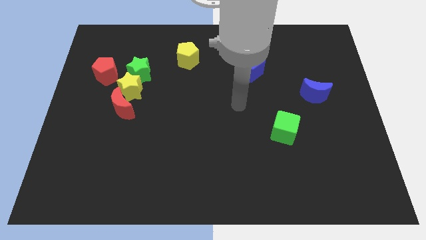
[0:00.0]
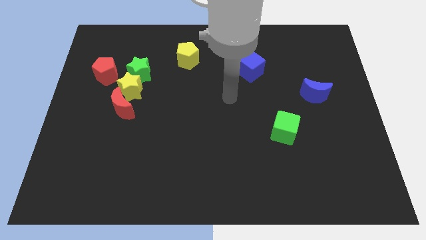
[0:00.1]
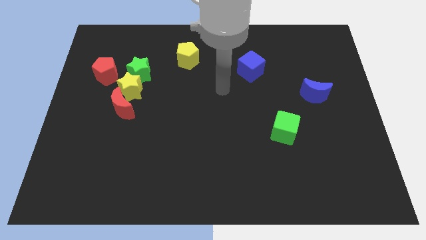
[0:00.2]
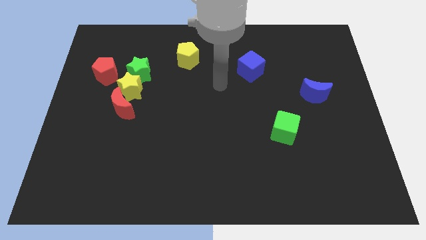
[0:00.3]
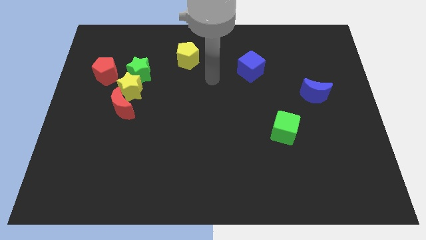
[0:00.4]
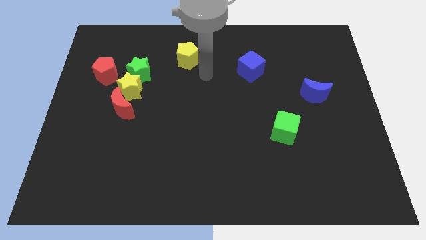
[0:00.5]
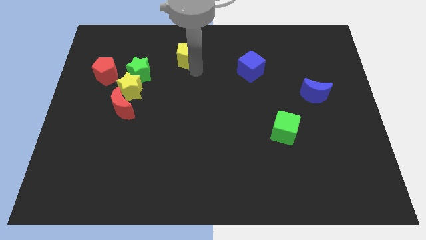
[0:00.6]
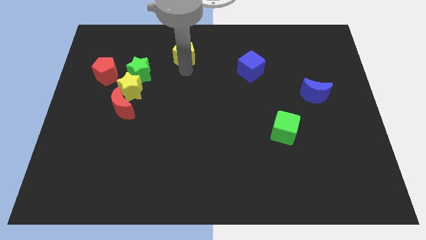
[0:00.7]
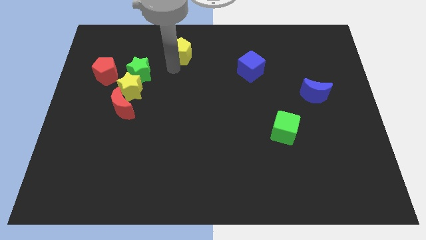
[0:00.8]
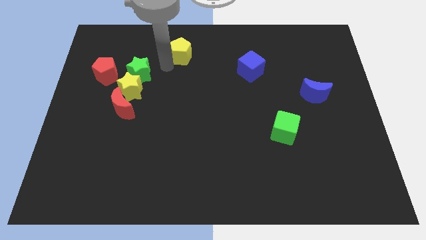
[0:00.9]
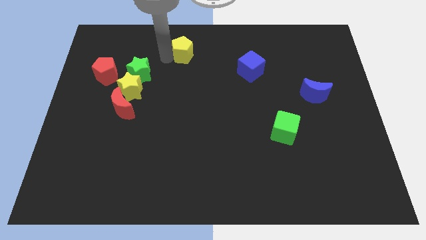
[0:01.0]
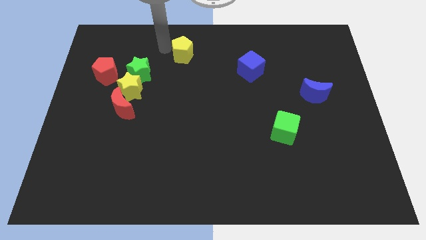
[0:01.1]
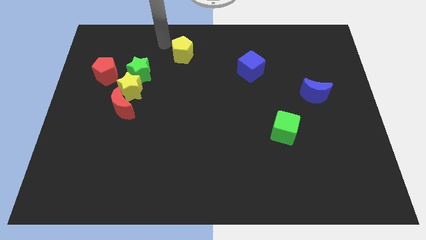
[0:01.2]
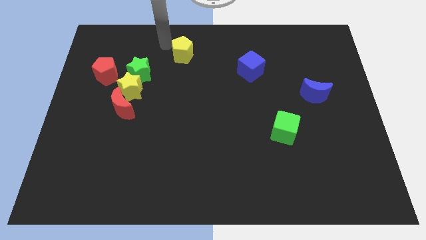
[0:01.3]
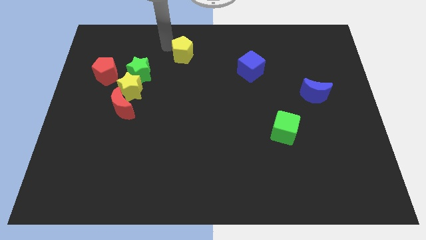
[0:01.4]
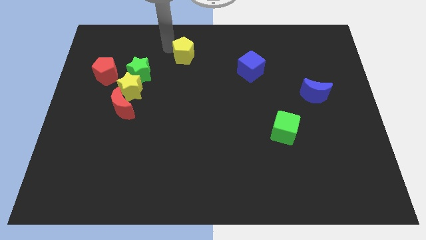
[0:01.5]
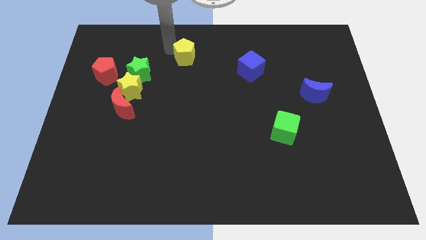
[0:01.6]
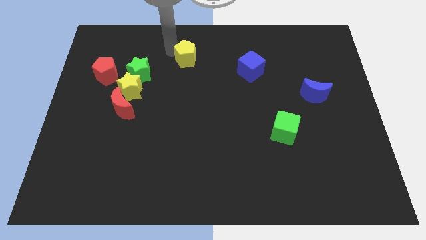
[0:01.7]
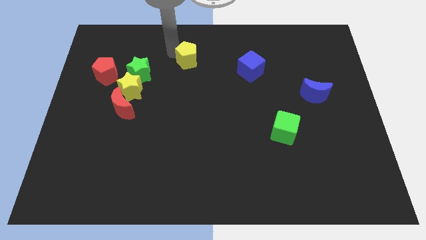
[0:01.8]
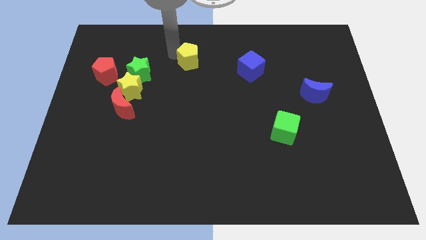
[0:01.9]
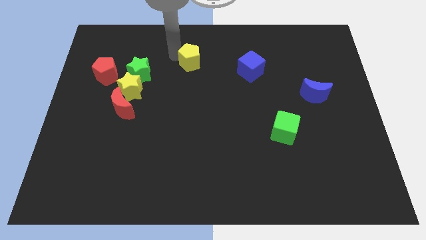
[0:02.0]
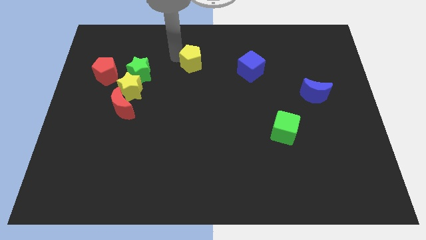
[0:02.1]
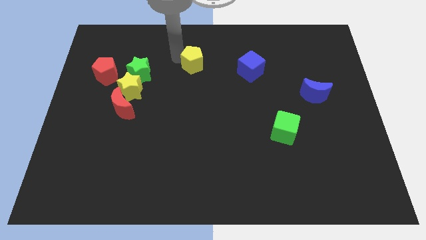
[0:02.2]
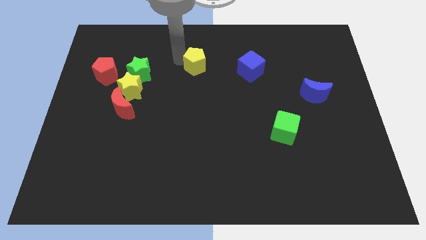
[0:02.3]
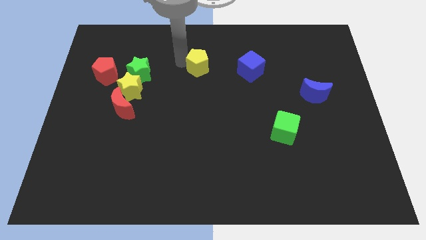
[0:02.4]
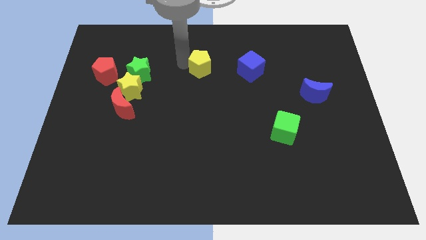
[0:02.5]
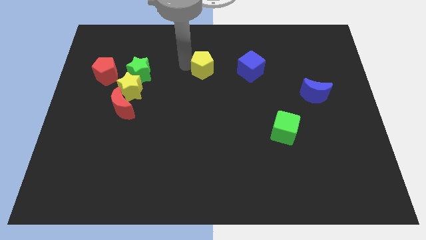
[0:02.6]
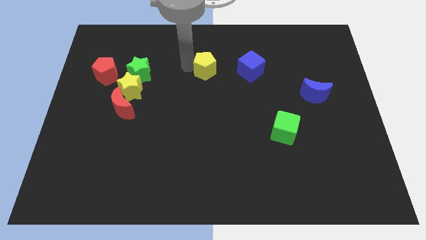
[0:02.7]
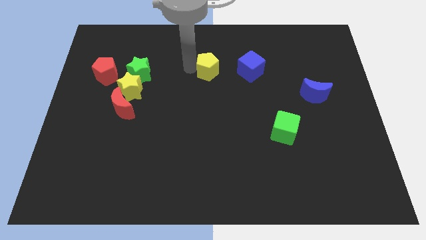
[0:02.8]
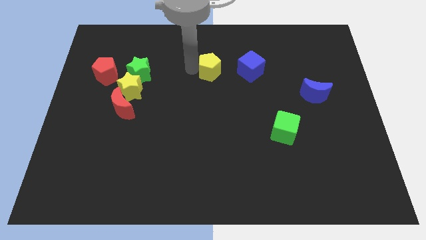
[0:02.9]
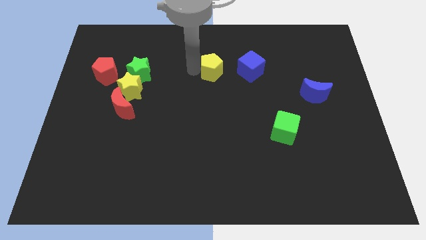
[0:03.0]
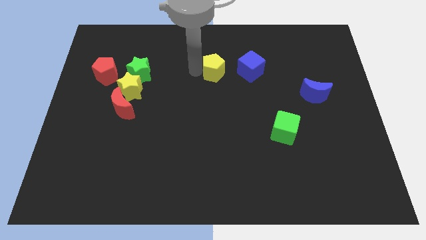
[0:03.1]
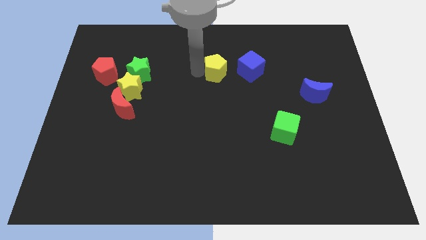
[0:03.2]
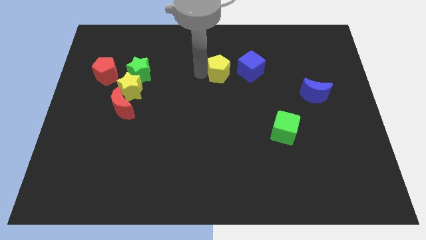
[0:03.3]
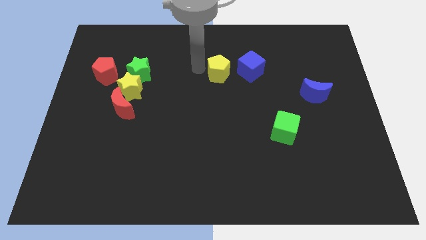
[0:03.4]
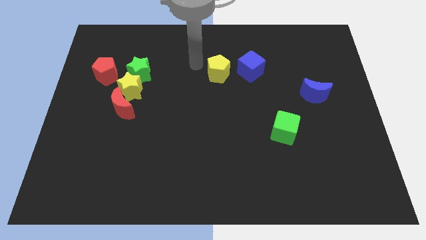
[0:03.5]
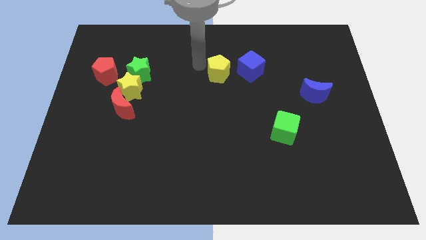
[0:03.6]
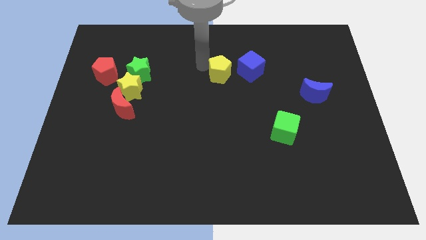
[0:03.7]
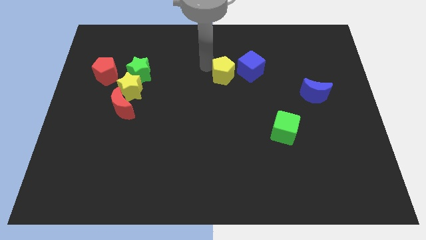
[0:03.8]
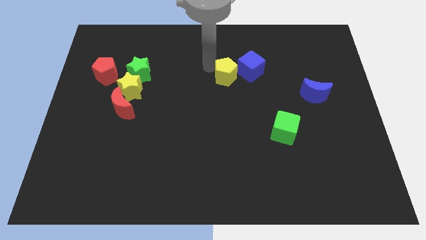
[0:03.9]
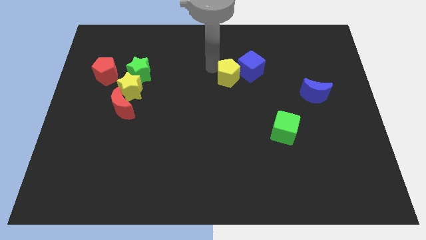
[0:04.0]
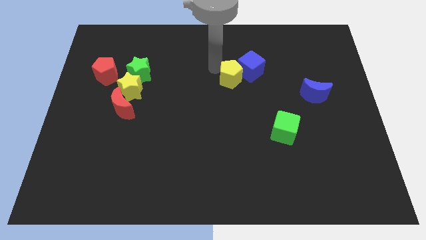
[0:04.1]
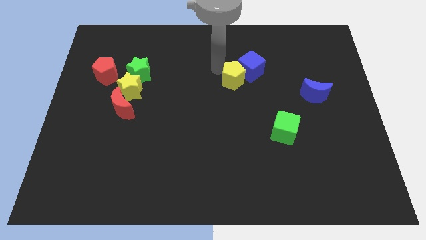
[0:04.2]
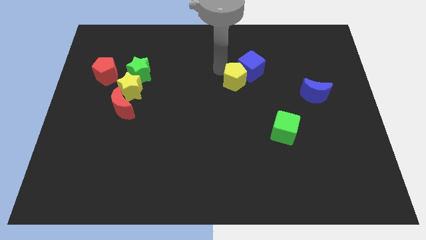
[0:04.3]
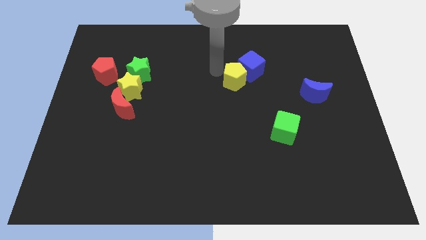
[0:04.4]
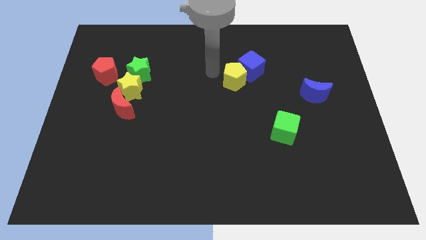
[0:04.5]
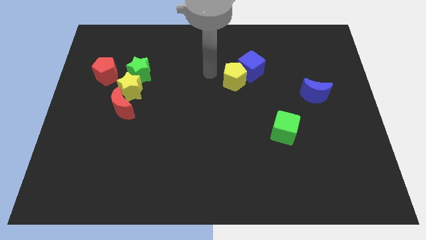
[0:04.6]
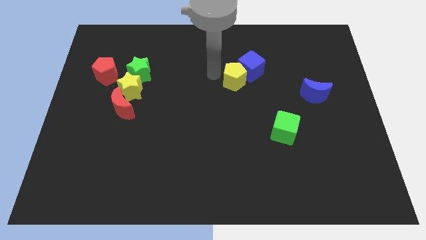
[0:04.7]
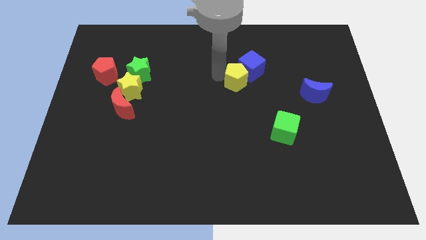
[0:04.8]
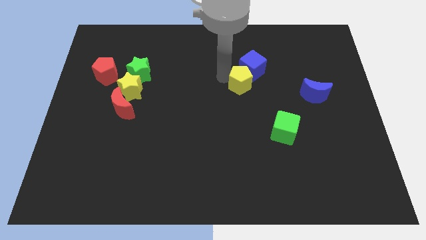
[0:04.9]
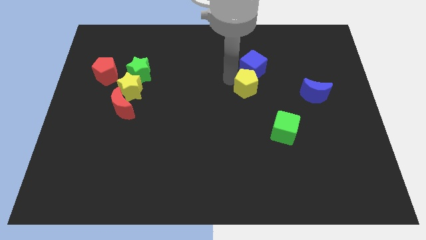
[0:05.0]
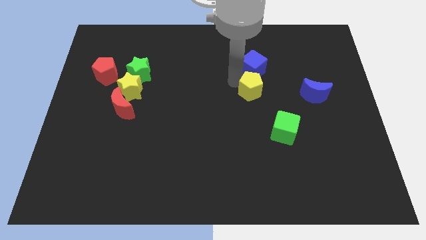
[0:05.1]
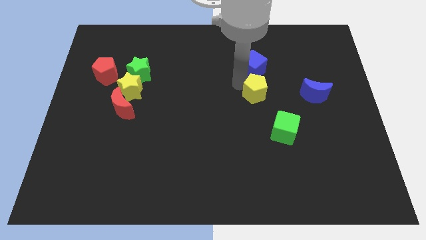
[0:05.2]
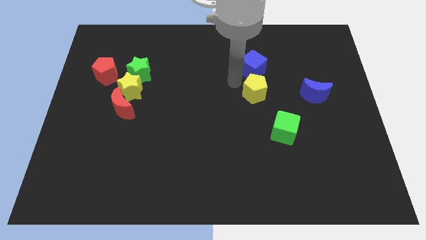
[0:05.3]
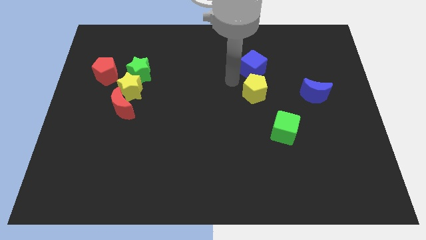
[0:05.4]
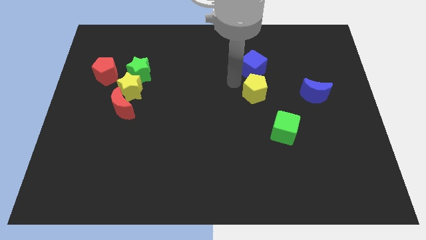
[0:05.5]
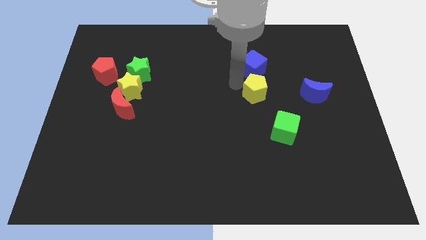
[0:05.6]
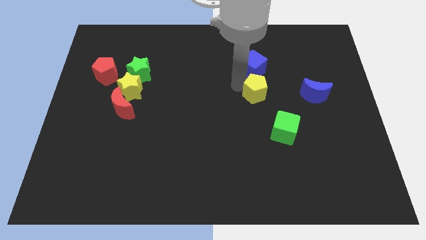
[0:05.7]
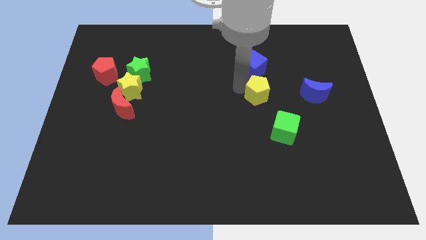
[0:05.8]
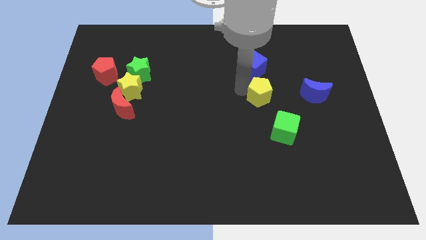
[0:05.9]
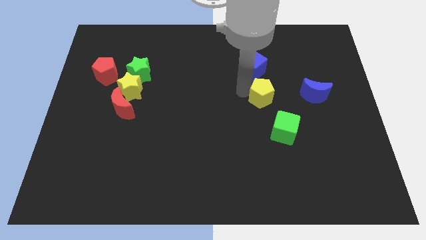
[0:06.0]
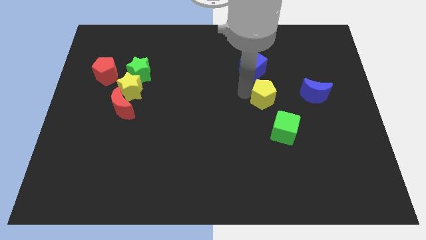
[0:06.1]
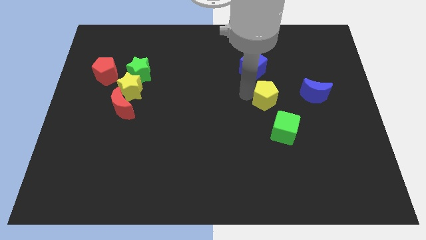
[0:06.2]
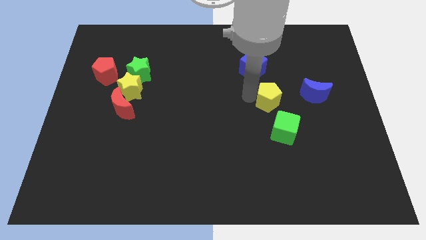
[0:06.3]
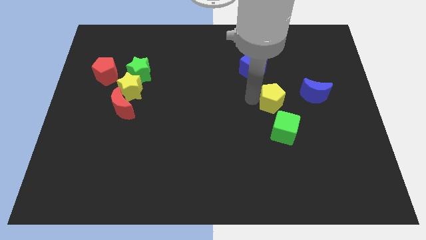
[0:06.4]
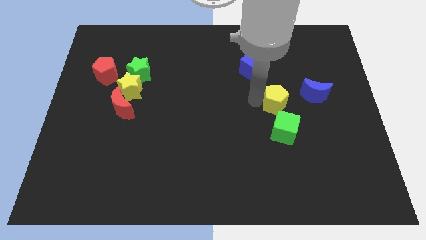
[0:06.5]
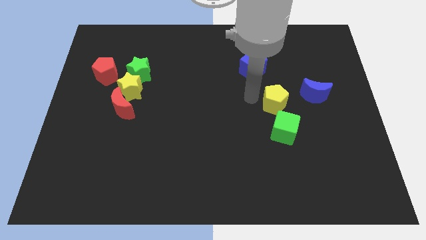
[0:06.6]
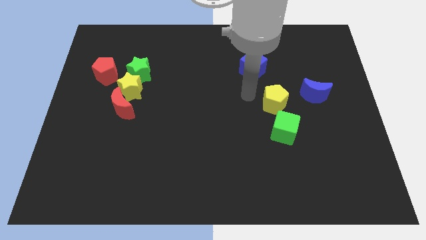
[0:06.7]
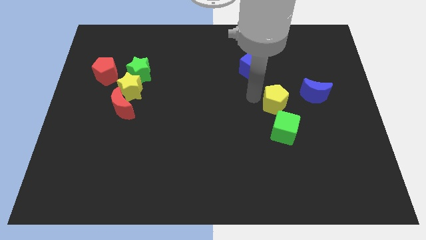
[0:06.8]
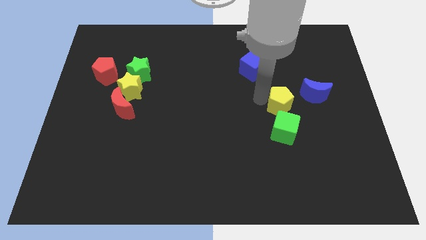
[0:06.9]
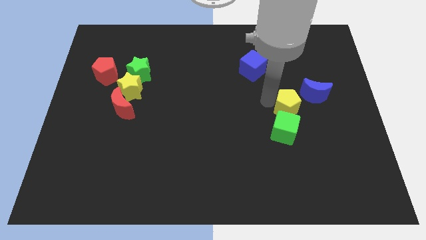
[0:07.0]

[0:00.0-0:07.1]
slide the yellow pentagon diagonally up and to the right of the green cube
